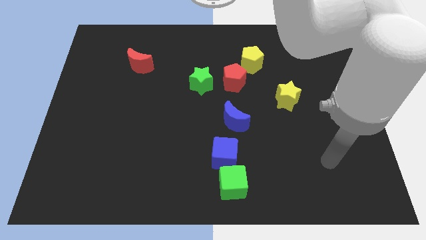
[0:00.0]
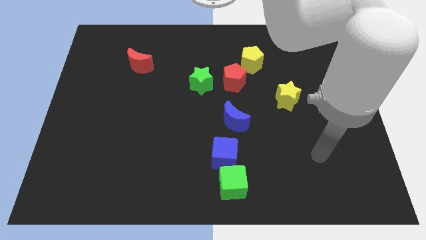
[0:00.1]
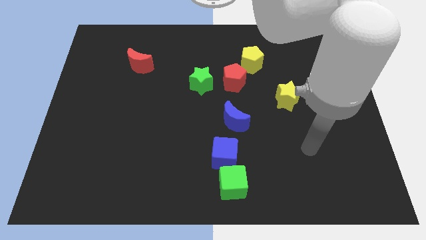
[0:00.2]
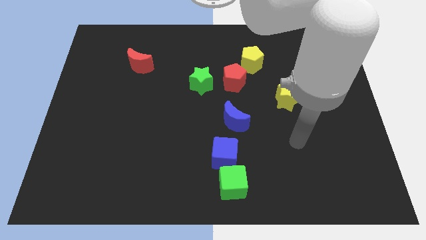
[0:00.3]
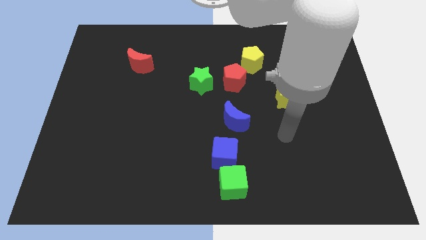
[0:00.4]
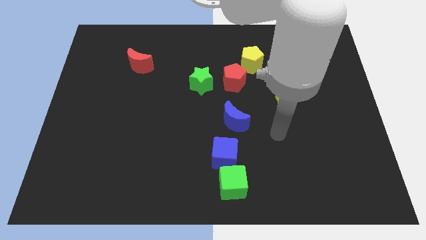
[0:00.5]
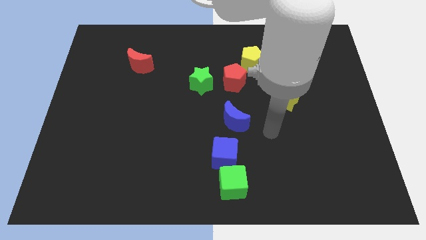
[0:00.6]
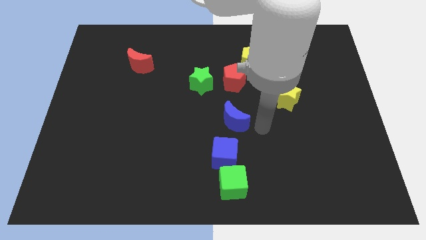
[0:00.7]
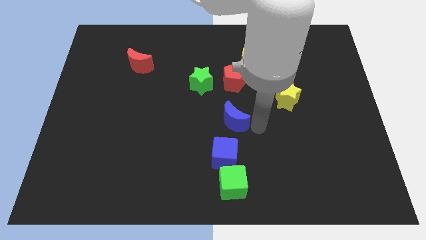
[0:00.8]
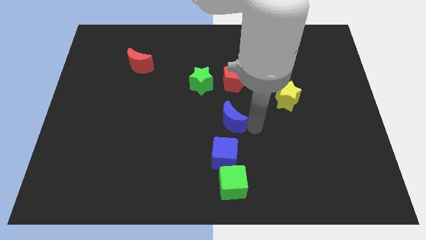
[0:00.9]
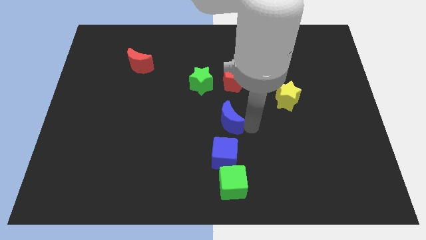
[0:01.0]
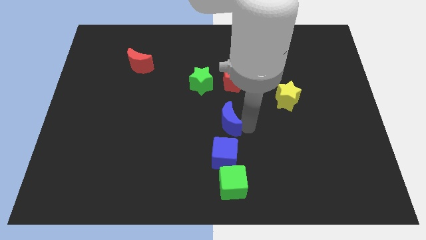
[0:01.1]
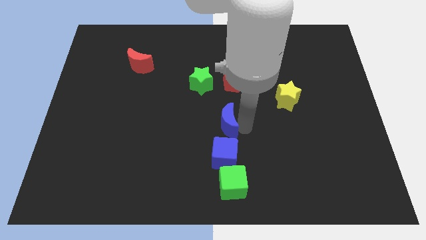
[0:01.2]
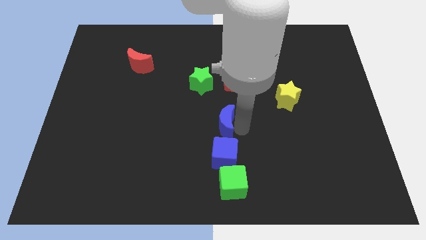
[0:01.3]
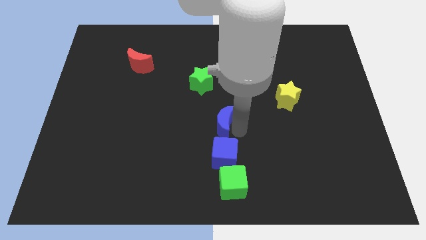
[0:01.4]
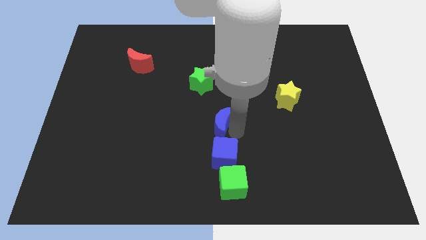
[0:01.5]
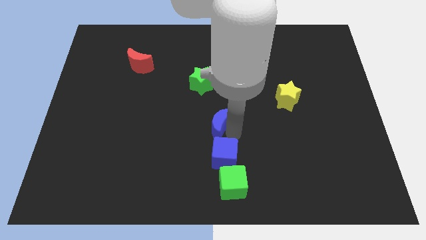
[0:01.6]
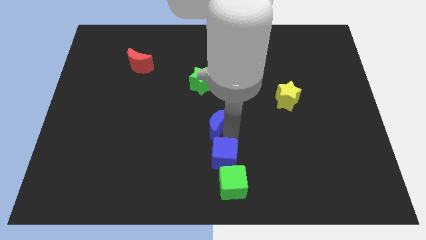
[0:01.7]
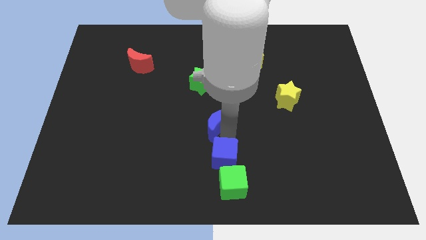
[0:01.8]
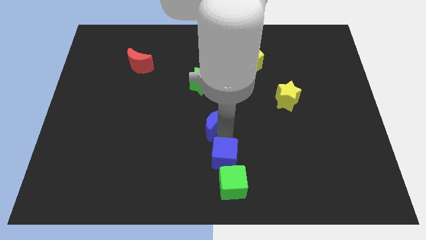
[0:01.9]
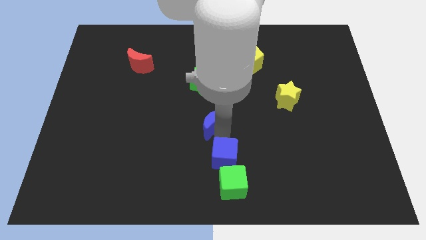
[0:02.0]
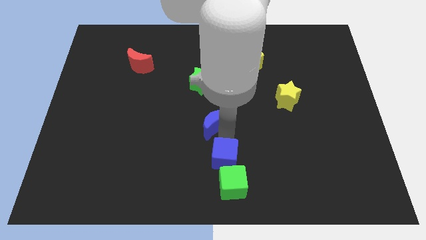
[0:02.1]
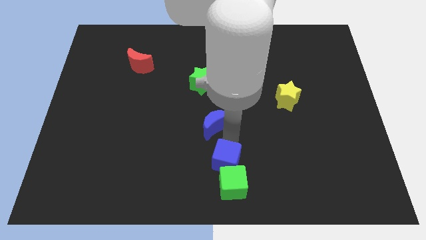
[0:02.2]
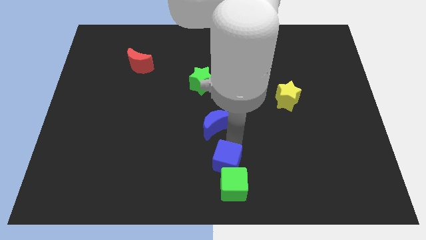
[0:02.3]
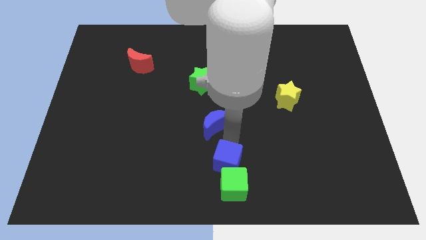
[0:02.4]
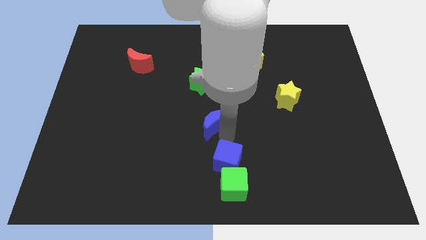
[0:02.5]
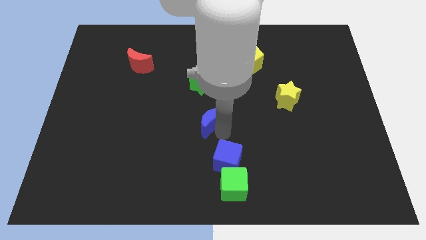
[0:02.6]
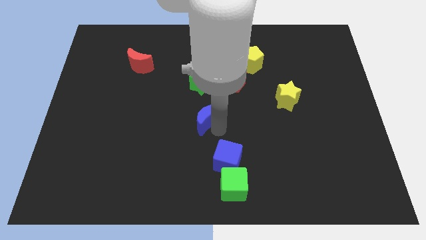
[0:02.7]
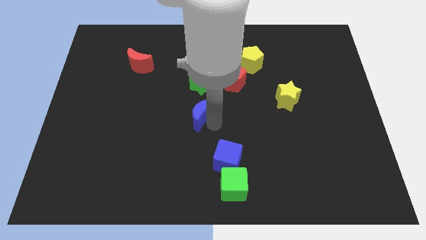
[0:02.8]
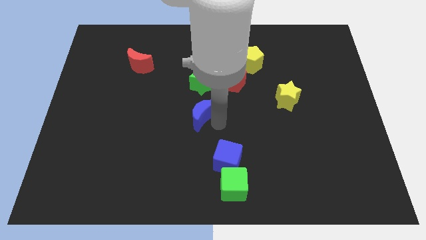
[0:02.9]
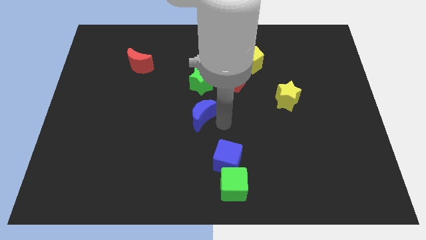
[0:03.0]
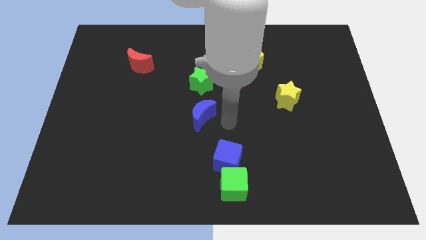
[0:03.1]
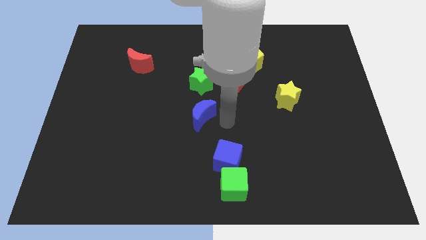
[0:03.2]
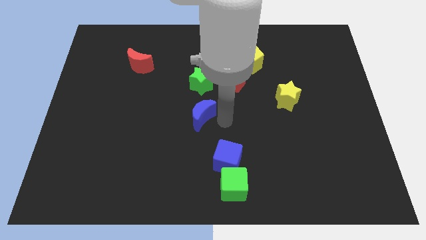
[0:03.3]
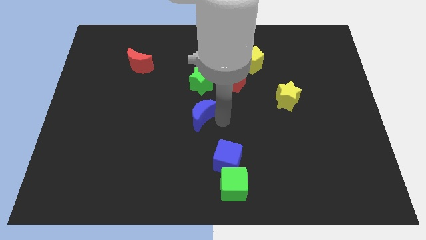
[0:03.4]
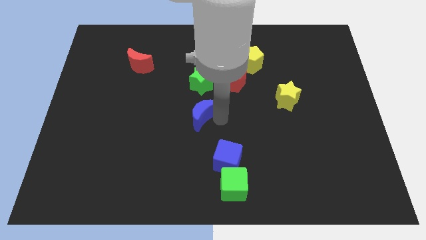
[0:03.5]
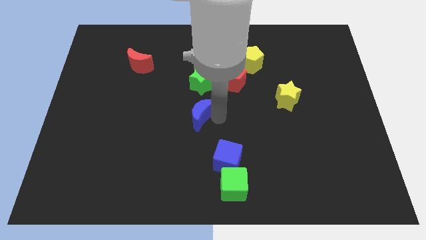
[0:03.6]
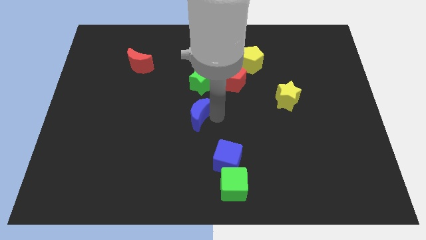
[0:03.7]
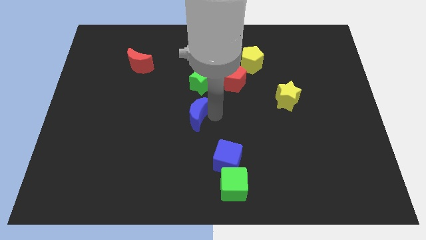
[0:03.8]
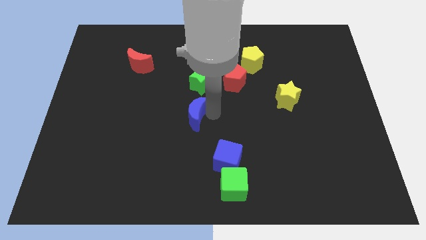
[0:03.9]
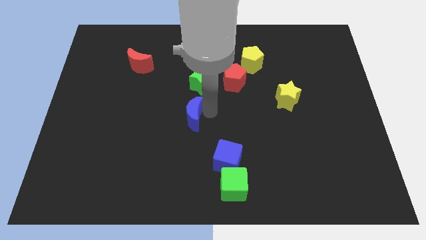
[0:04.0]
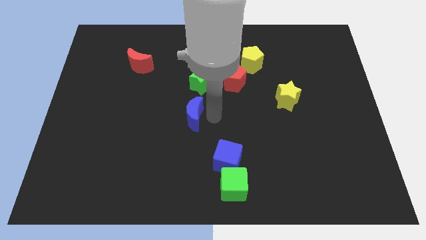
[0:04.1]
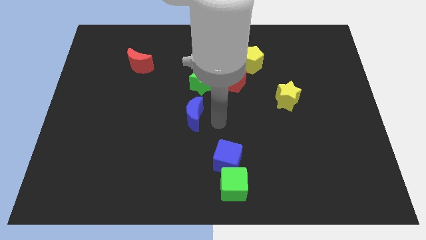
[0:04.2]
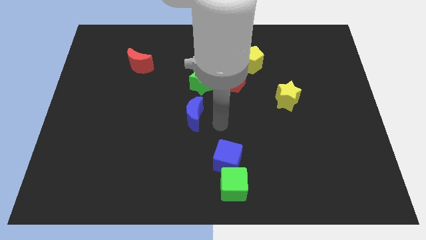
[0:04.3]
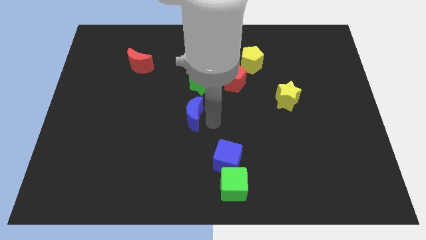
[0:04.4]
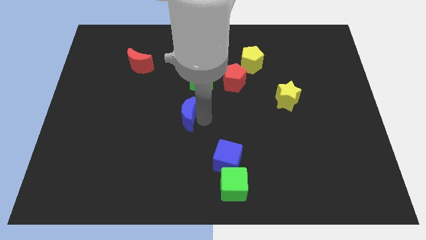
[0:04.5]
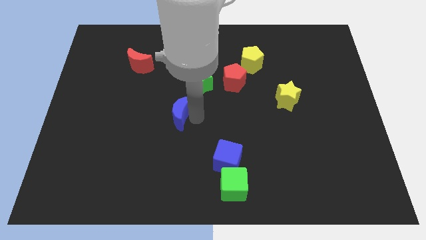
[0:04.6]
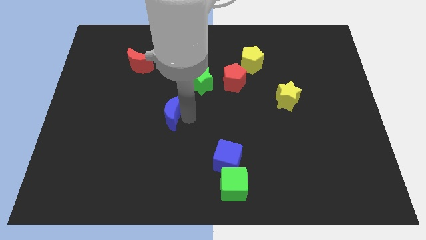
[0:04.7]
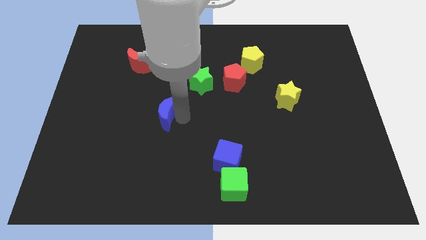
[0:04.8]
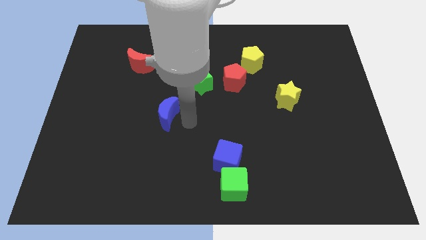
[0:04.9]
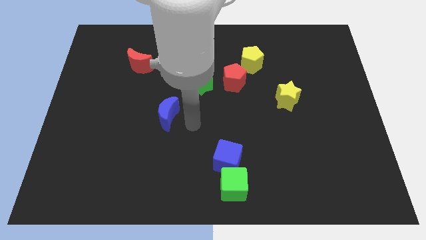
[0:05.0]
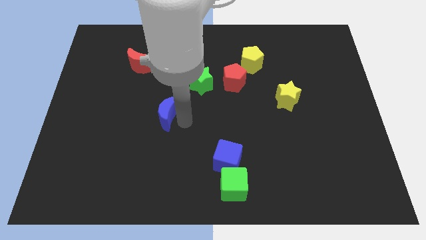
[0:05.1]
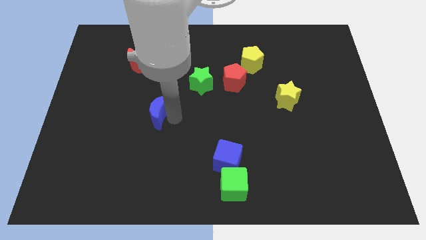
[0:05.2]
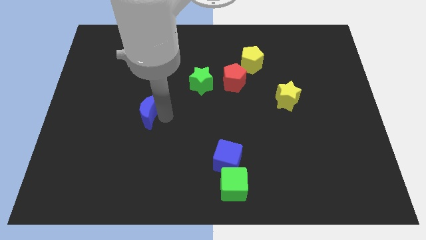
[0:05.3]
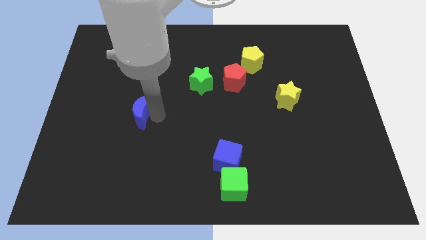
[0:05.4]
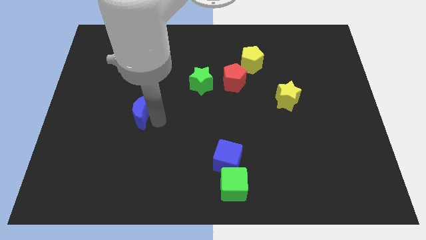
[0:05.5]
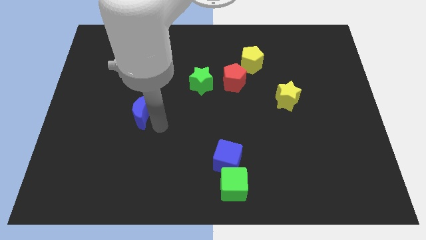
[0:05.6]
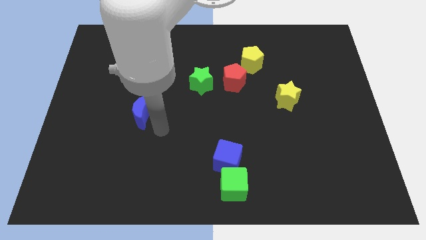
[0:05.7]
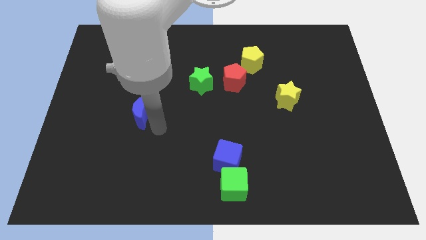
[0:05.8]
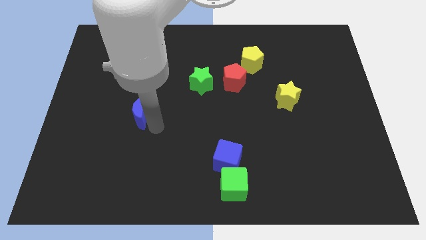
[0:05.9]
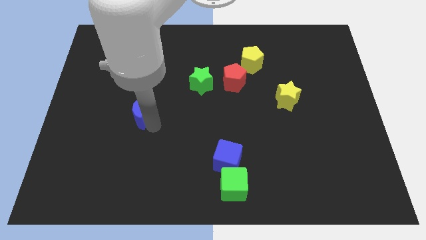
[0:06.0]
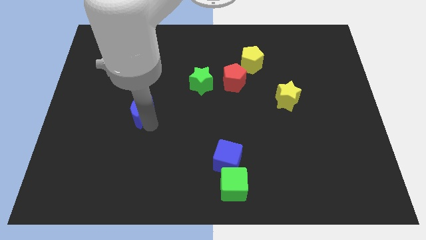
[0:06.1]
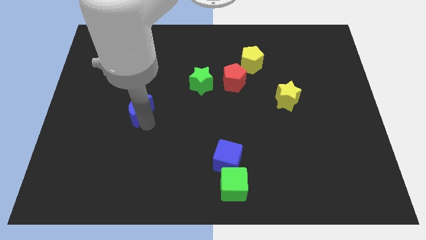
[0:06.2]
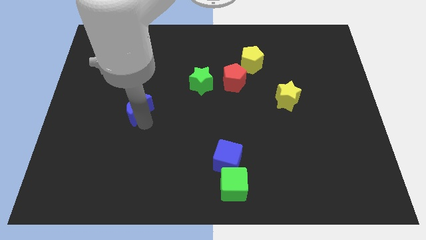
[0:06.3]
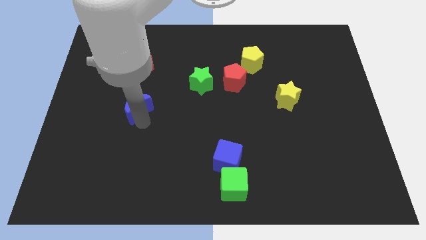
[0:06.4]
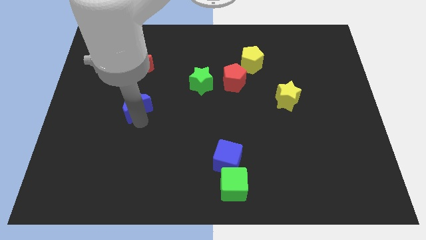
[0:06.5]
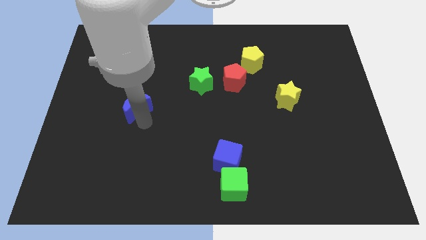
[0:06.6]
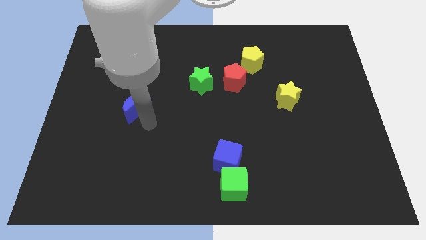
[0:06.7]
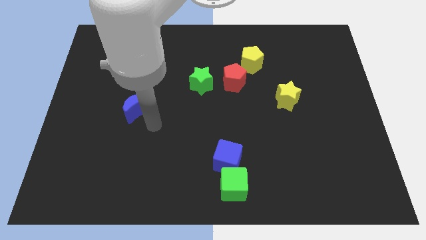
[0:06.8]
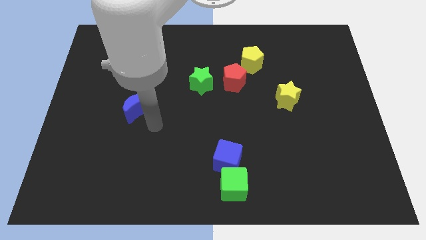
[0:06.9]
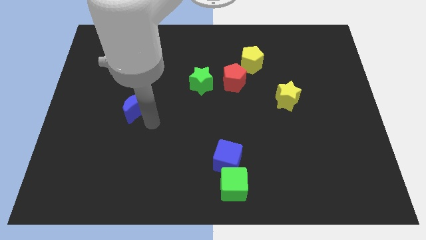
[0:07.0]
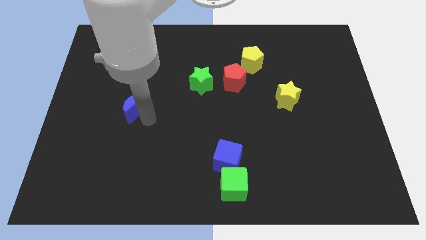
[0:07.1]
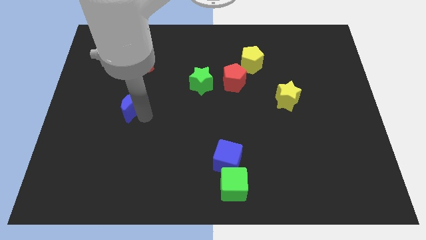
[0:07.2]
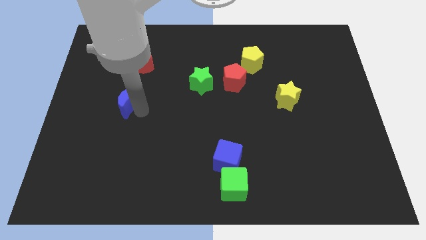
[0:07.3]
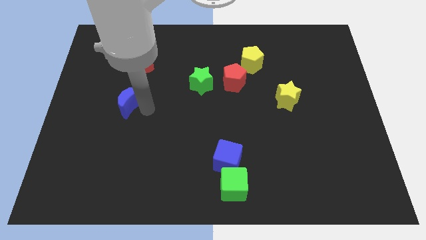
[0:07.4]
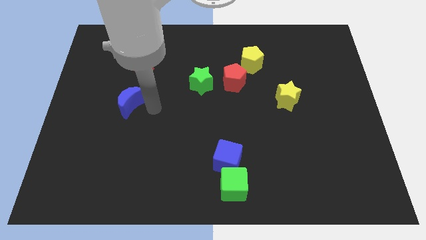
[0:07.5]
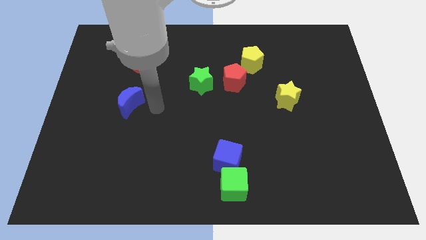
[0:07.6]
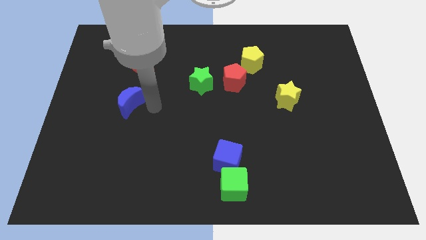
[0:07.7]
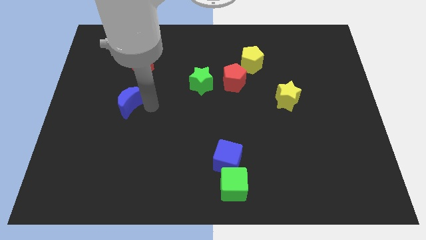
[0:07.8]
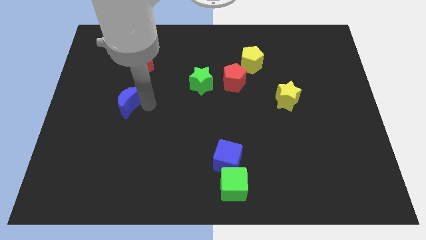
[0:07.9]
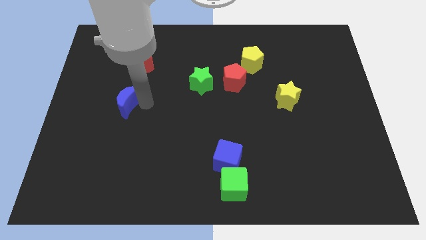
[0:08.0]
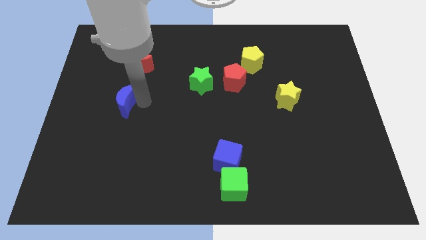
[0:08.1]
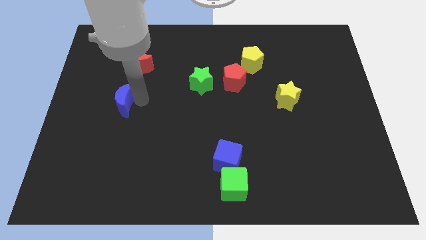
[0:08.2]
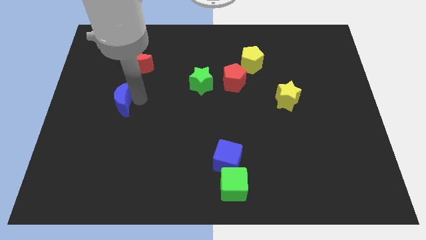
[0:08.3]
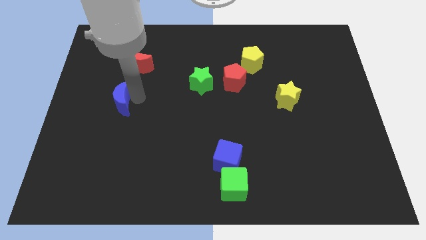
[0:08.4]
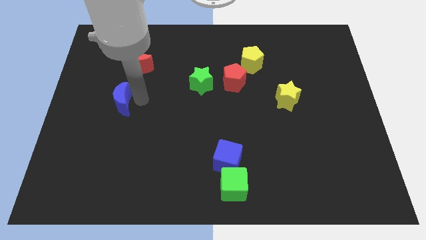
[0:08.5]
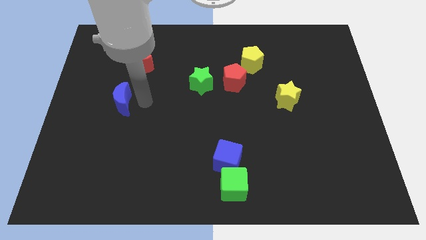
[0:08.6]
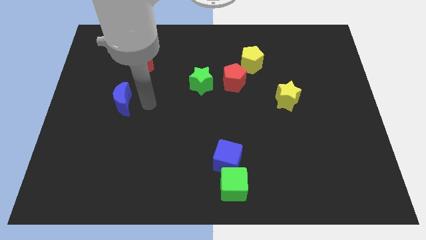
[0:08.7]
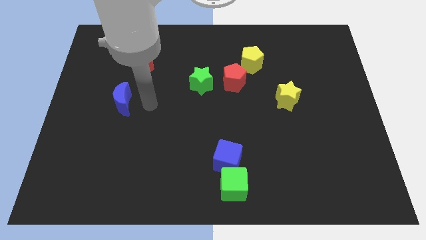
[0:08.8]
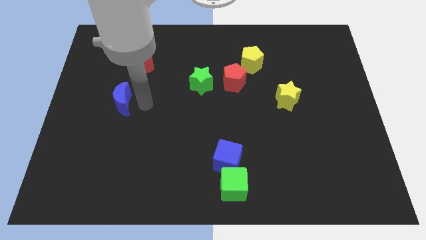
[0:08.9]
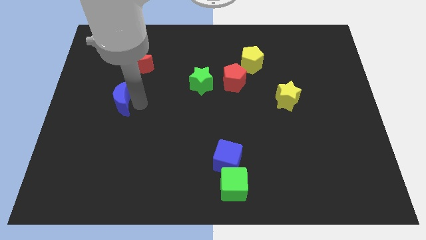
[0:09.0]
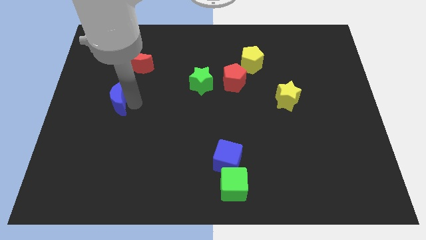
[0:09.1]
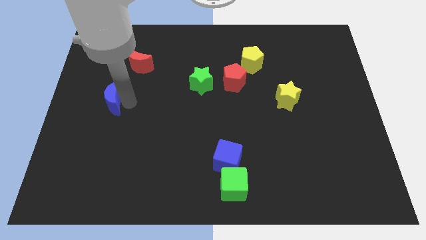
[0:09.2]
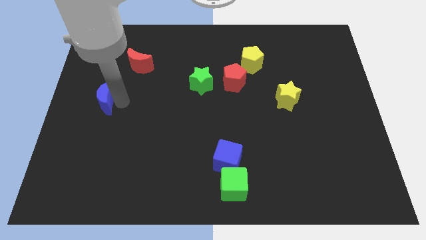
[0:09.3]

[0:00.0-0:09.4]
put the blue moon to the center left
